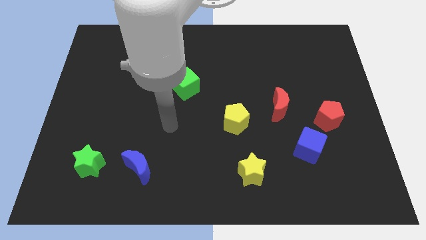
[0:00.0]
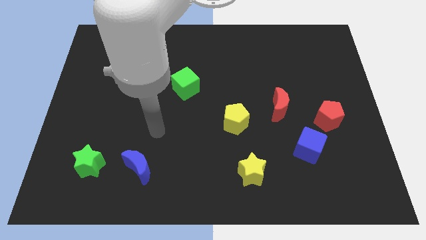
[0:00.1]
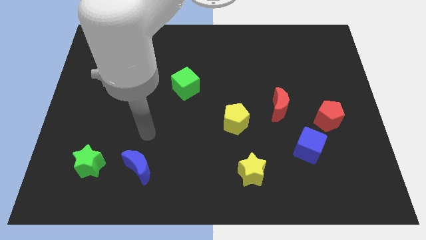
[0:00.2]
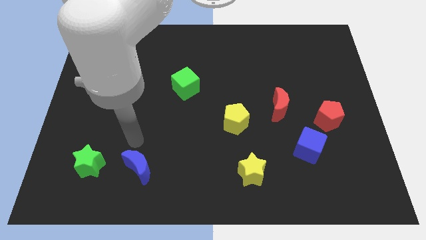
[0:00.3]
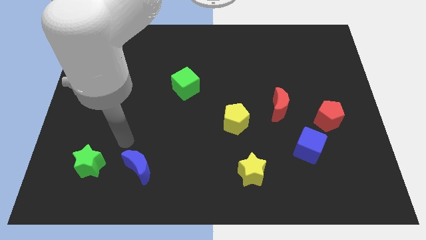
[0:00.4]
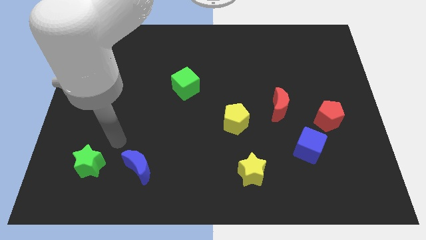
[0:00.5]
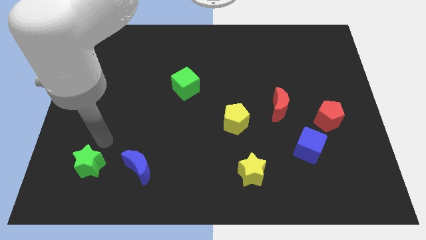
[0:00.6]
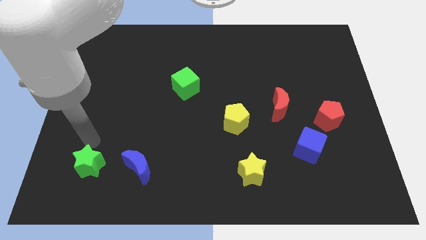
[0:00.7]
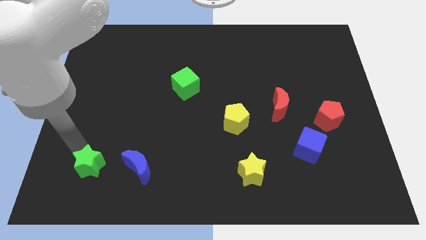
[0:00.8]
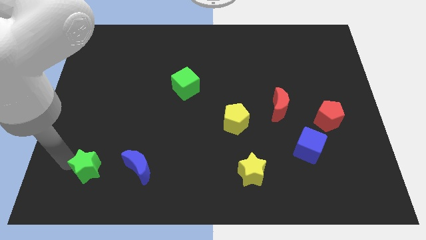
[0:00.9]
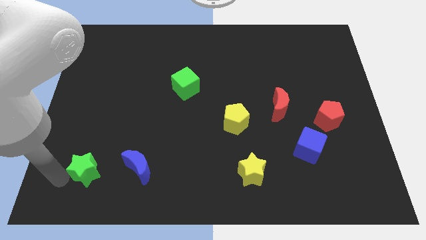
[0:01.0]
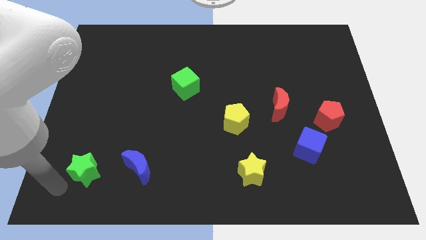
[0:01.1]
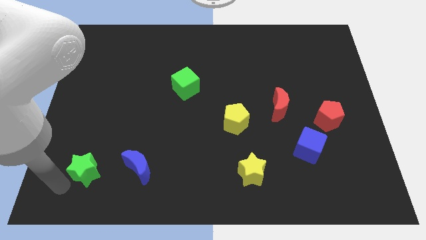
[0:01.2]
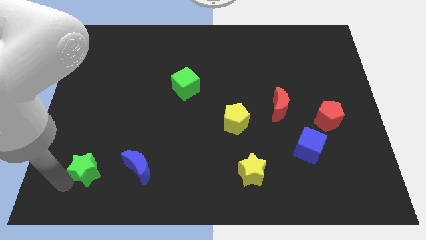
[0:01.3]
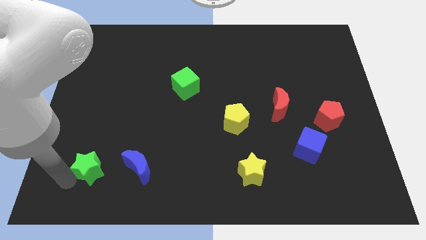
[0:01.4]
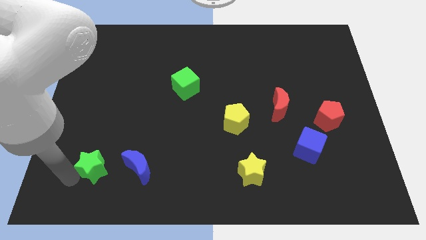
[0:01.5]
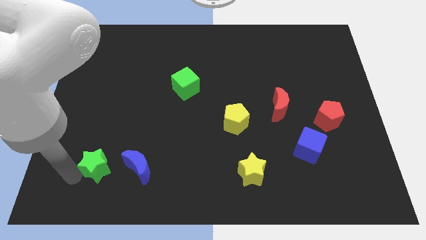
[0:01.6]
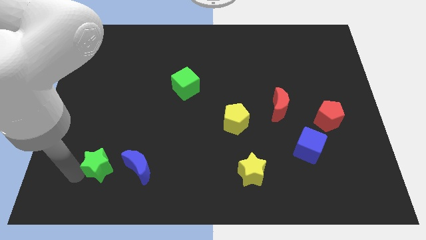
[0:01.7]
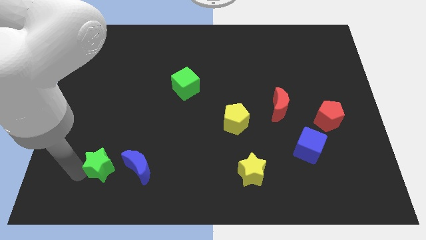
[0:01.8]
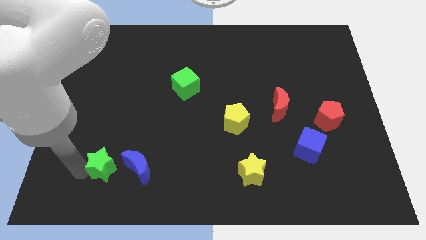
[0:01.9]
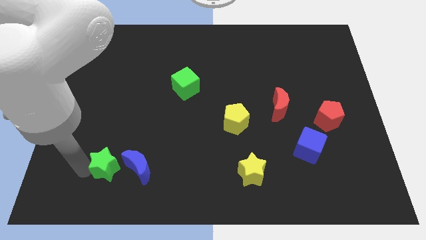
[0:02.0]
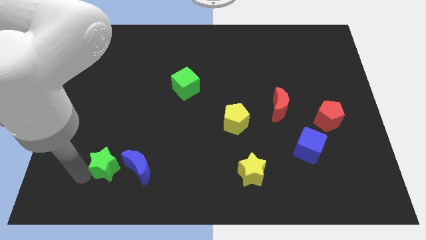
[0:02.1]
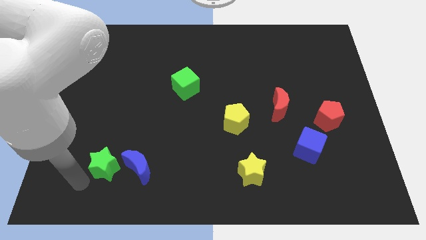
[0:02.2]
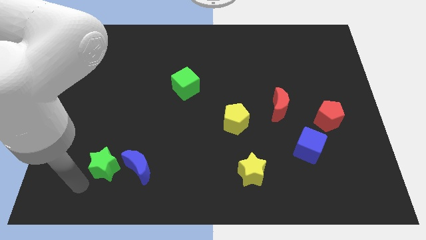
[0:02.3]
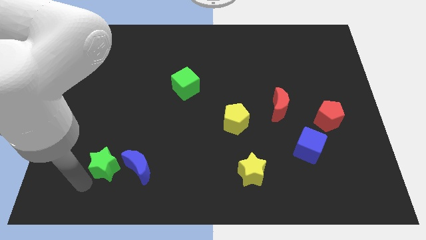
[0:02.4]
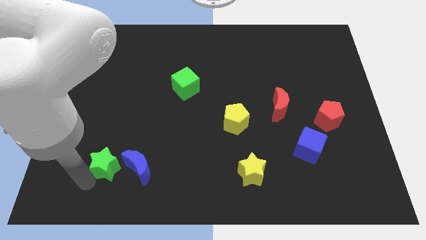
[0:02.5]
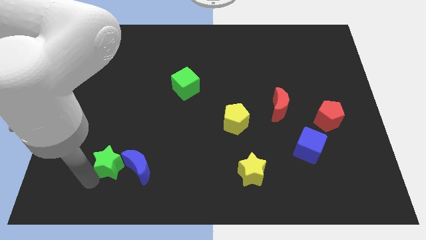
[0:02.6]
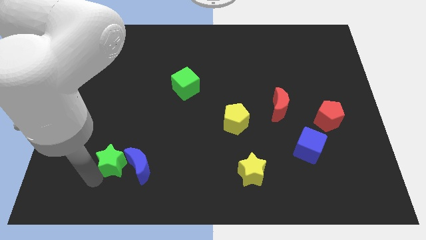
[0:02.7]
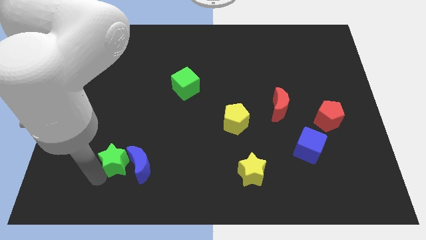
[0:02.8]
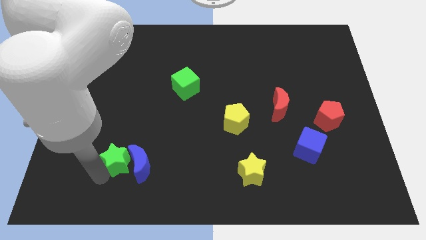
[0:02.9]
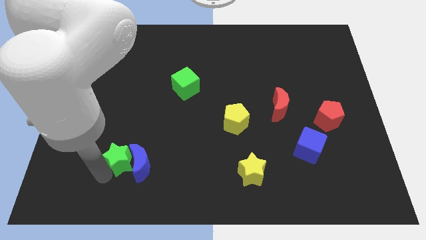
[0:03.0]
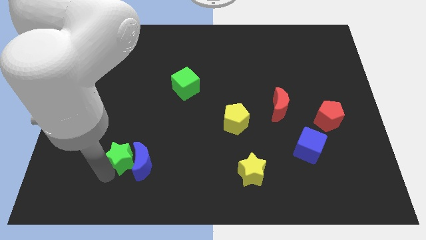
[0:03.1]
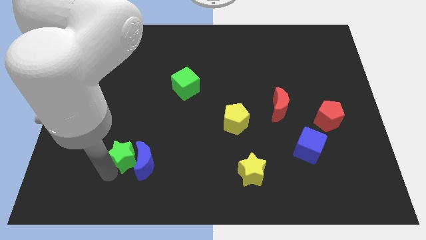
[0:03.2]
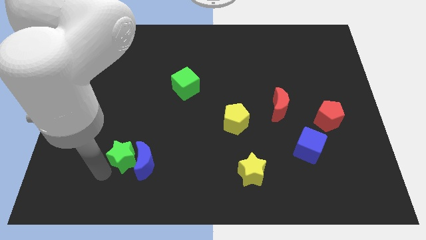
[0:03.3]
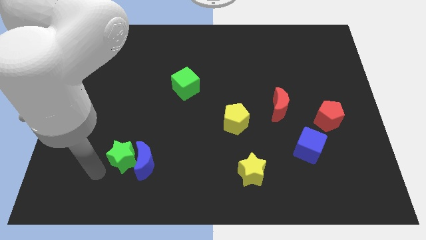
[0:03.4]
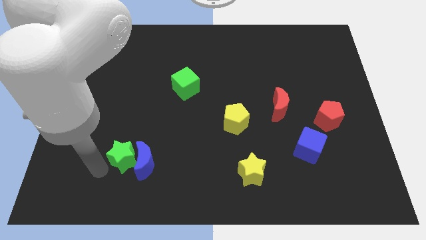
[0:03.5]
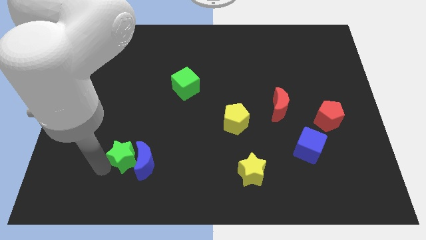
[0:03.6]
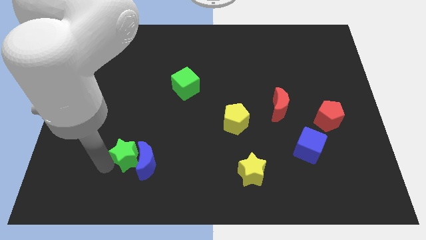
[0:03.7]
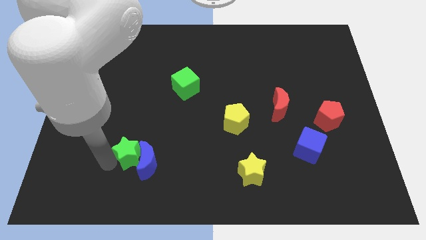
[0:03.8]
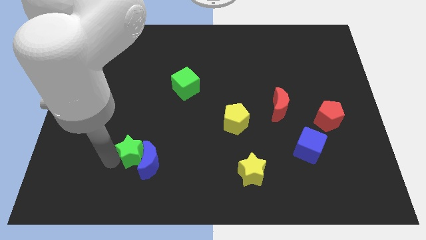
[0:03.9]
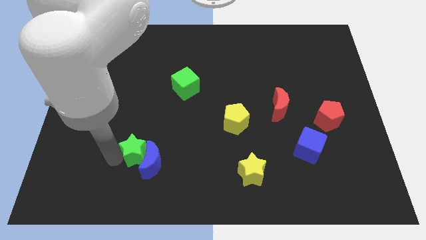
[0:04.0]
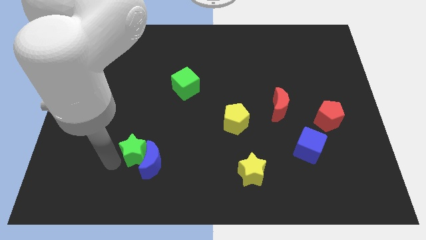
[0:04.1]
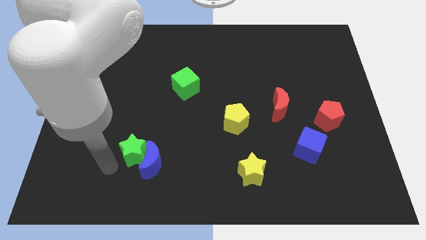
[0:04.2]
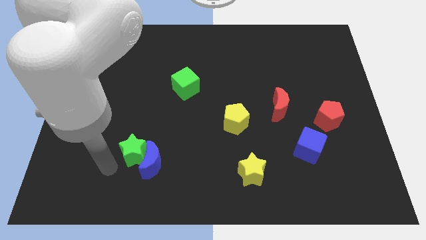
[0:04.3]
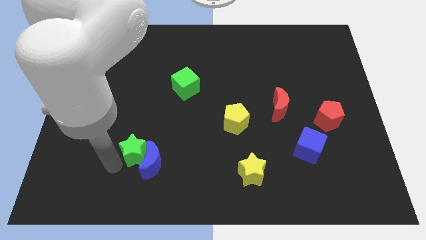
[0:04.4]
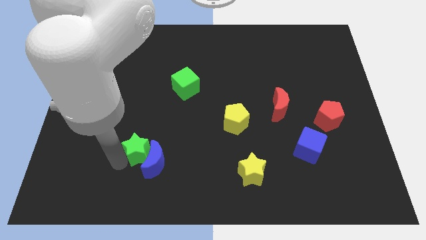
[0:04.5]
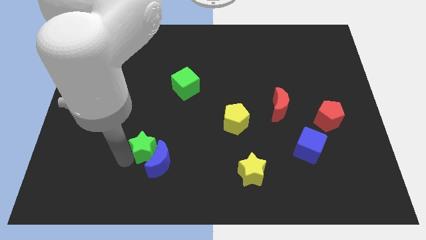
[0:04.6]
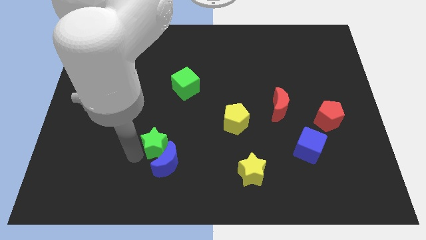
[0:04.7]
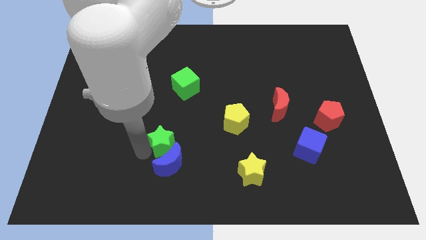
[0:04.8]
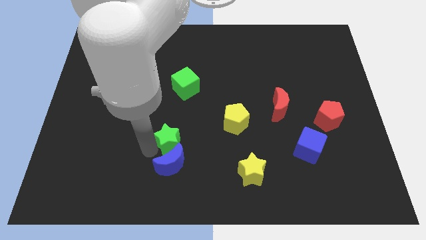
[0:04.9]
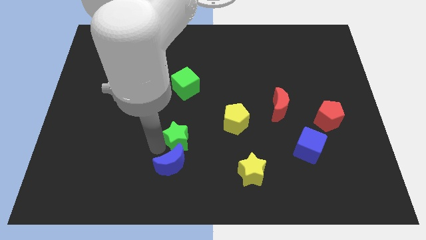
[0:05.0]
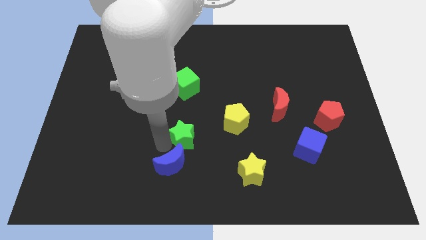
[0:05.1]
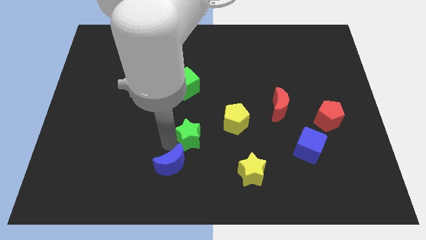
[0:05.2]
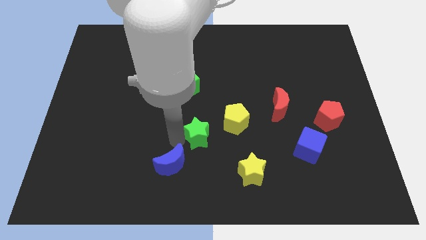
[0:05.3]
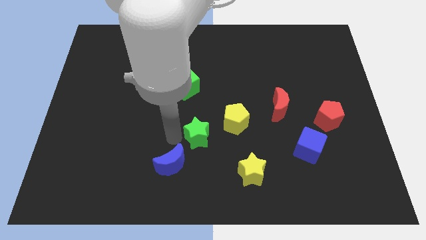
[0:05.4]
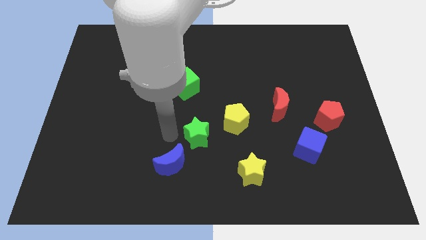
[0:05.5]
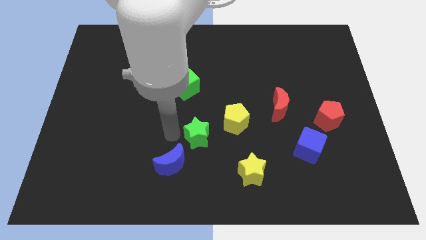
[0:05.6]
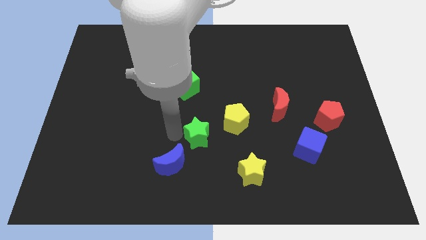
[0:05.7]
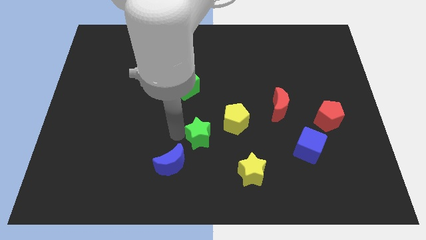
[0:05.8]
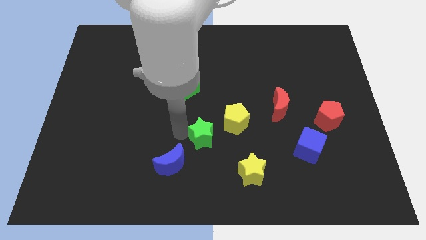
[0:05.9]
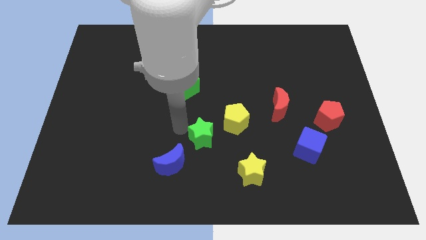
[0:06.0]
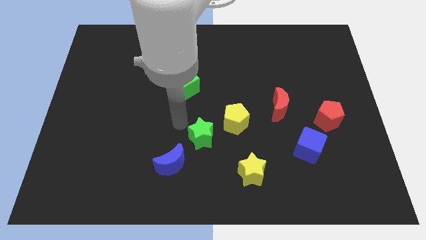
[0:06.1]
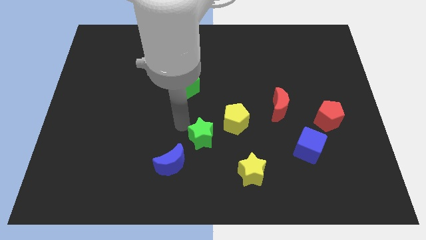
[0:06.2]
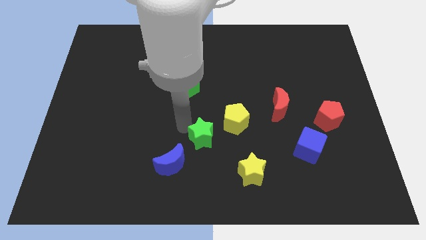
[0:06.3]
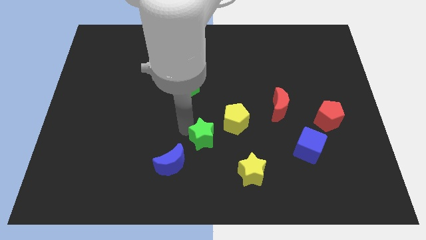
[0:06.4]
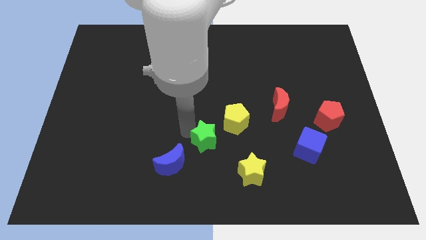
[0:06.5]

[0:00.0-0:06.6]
put the green star to the top left of the yellow star

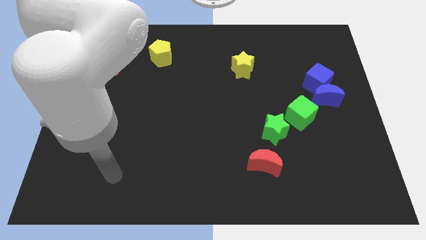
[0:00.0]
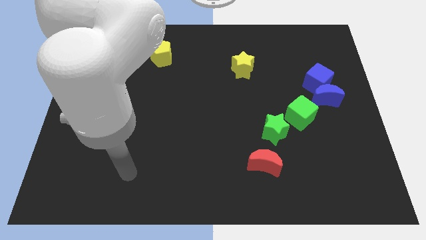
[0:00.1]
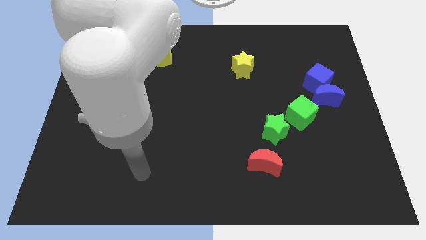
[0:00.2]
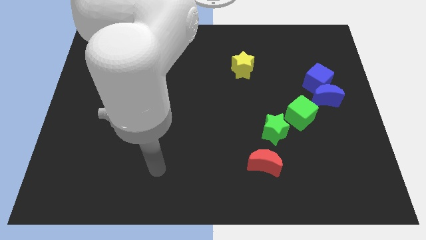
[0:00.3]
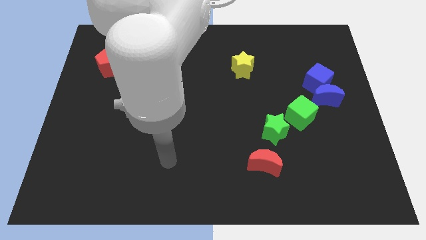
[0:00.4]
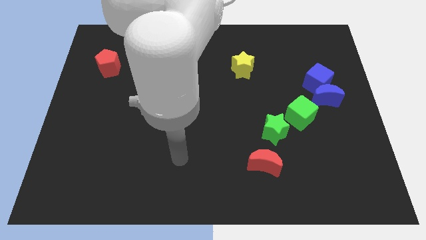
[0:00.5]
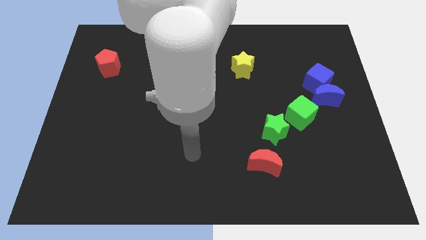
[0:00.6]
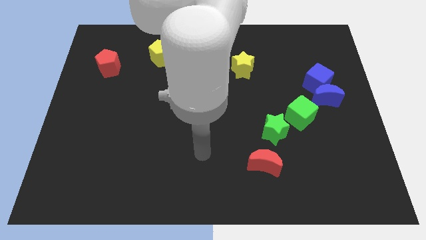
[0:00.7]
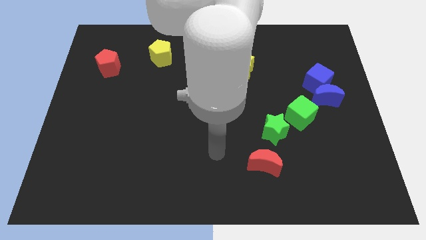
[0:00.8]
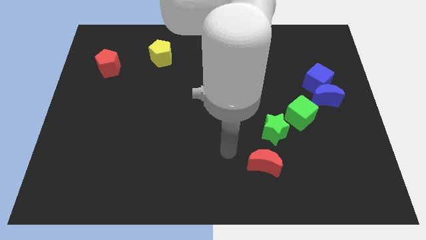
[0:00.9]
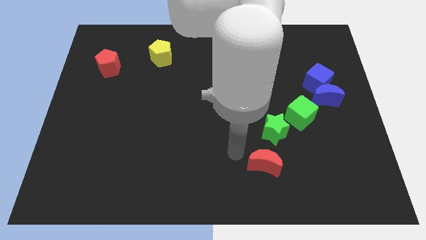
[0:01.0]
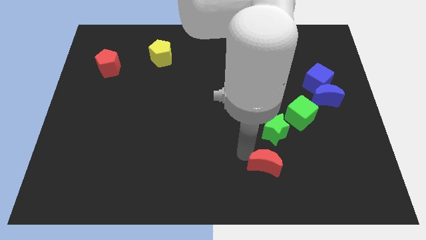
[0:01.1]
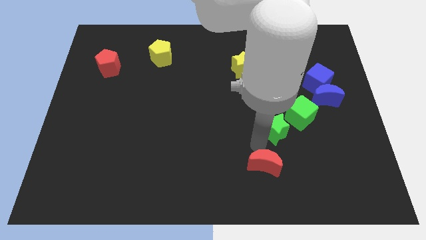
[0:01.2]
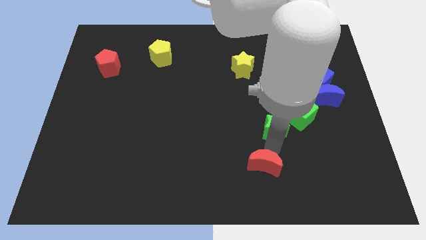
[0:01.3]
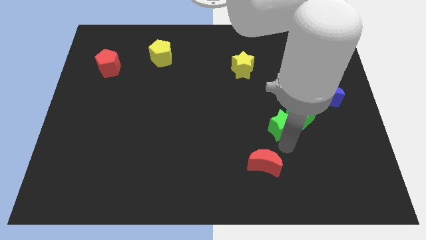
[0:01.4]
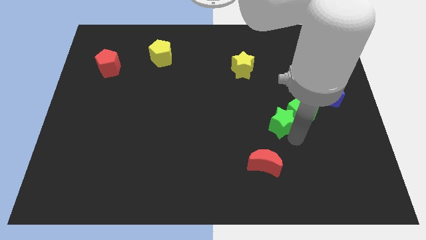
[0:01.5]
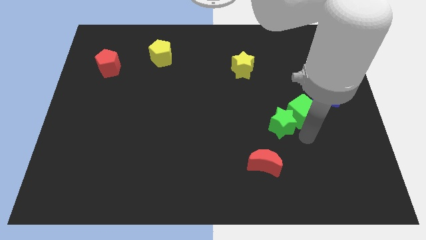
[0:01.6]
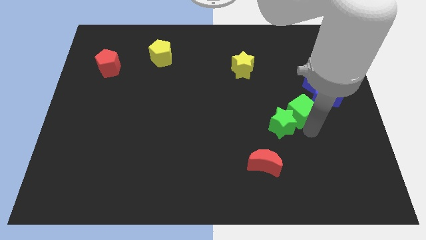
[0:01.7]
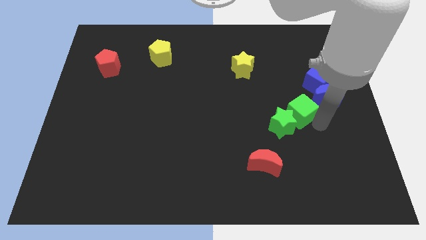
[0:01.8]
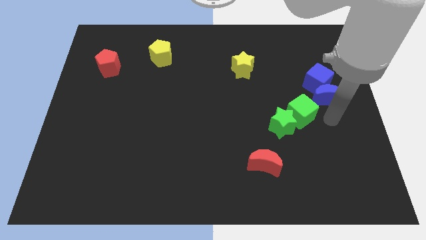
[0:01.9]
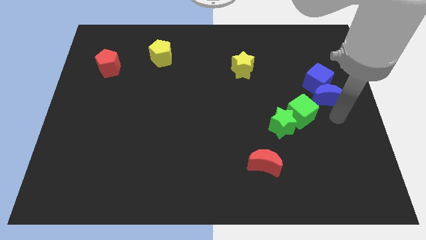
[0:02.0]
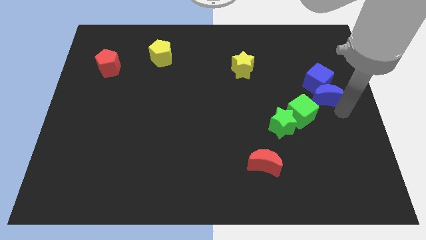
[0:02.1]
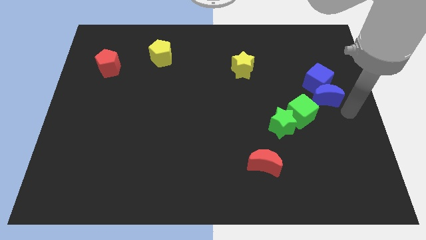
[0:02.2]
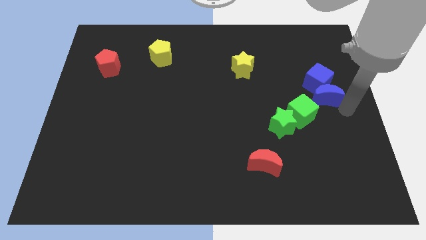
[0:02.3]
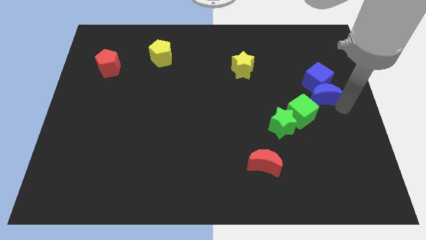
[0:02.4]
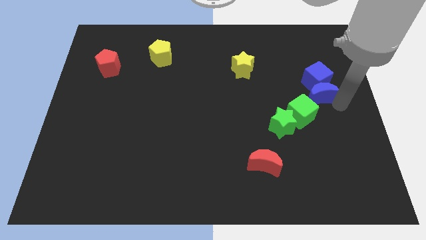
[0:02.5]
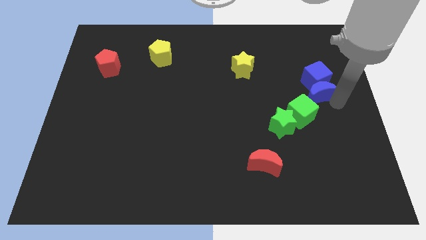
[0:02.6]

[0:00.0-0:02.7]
put the blue moon above the green cube
